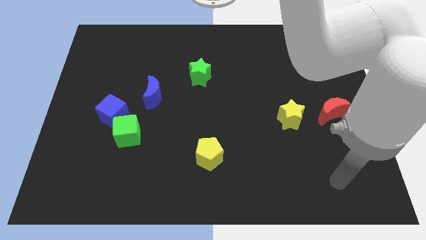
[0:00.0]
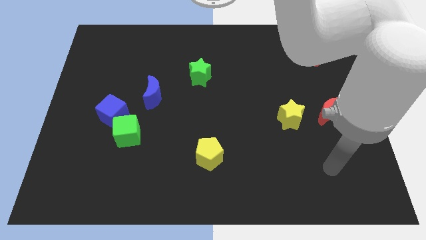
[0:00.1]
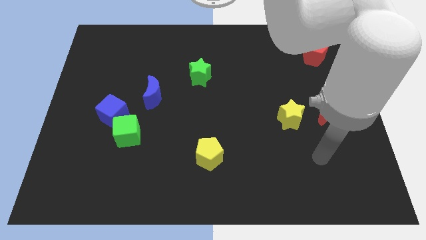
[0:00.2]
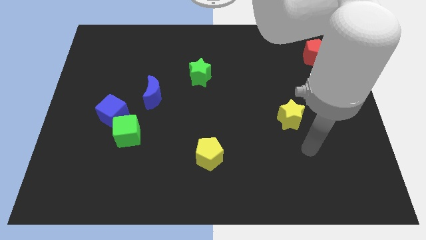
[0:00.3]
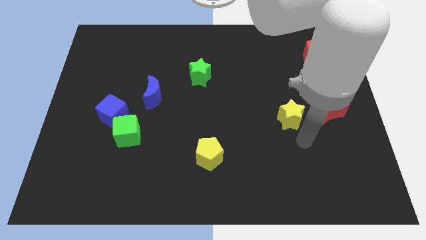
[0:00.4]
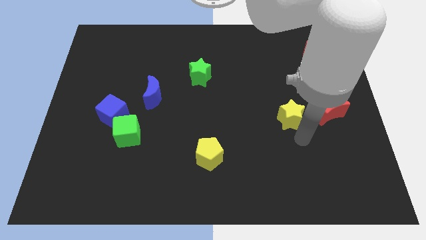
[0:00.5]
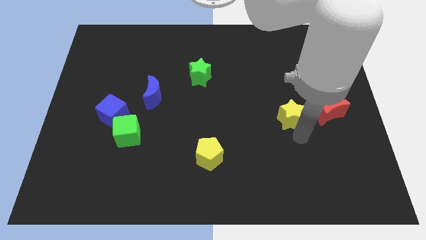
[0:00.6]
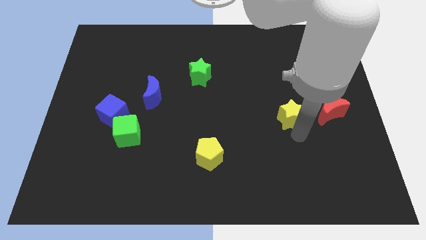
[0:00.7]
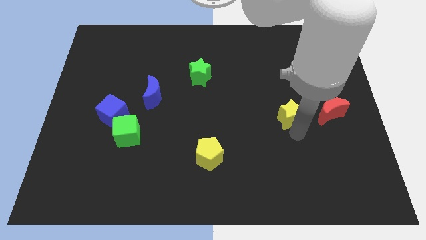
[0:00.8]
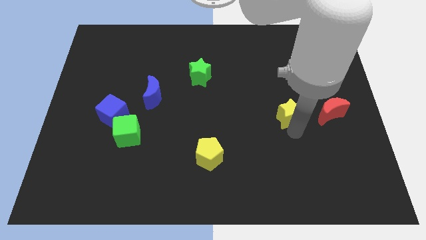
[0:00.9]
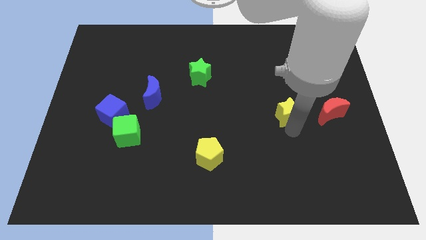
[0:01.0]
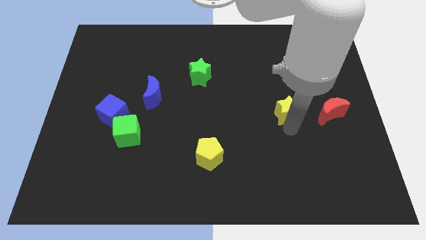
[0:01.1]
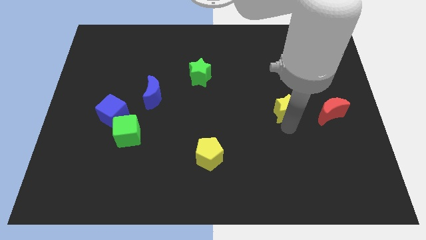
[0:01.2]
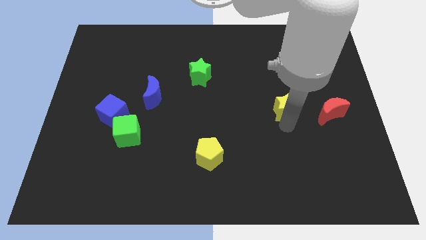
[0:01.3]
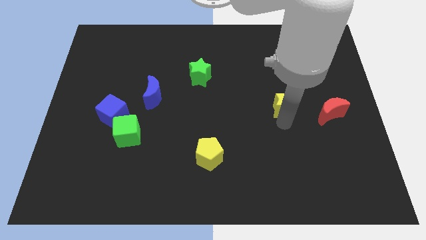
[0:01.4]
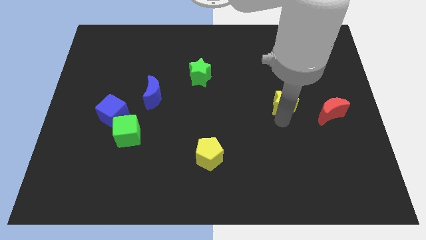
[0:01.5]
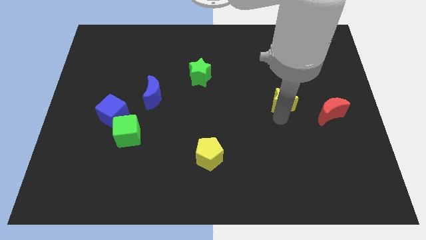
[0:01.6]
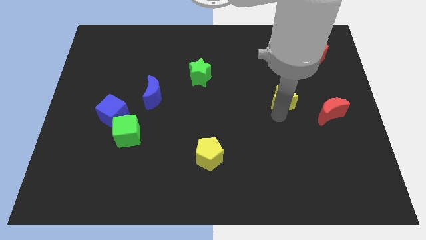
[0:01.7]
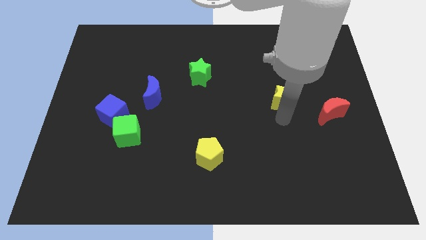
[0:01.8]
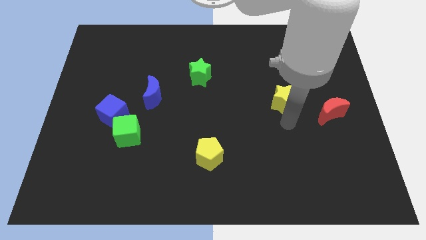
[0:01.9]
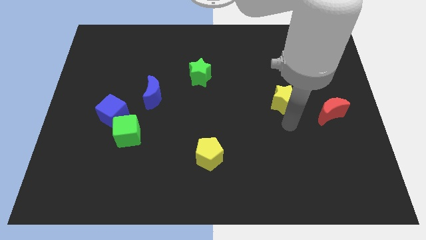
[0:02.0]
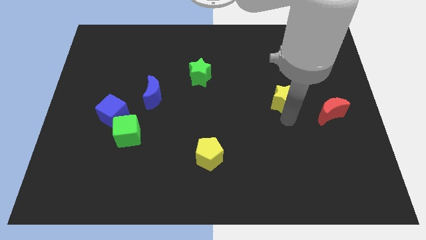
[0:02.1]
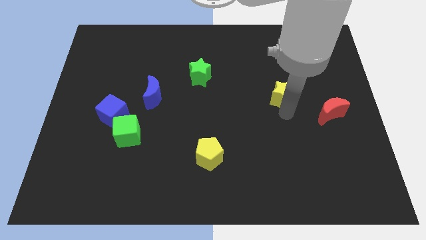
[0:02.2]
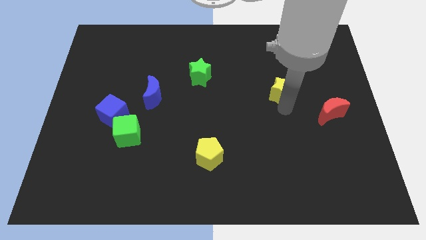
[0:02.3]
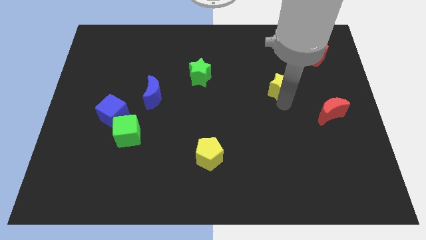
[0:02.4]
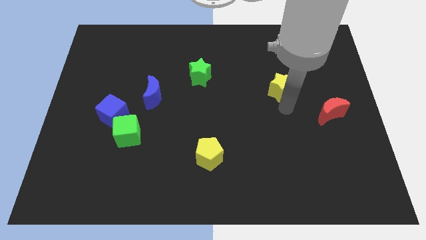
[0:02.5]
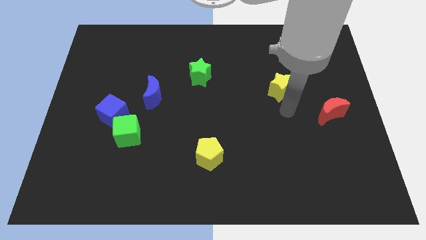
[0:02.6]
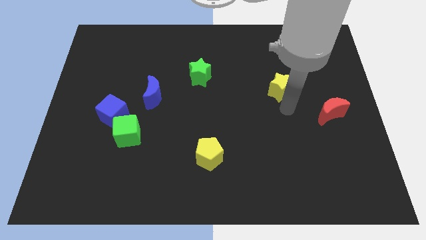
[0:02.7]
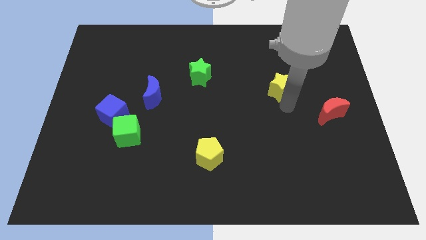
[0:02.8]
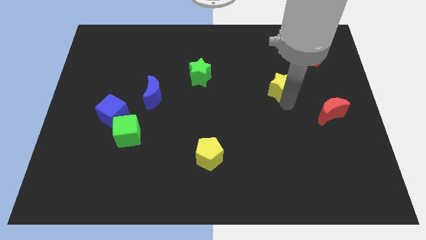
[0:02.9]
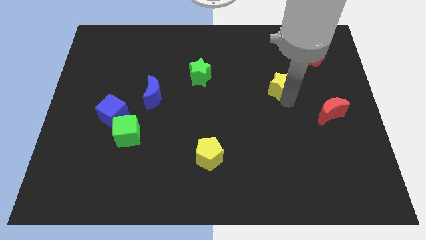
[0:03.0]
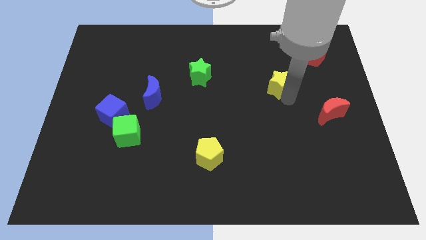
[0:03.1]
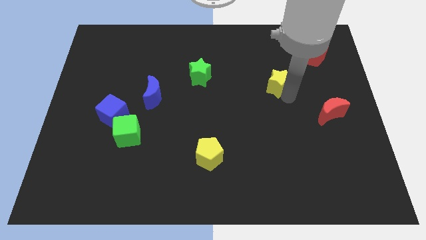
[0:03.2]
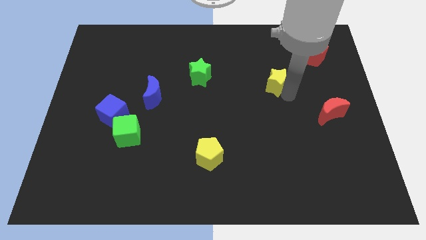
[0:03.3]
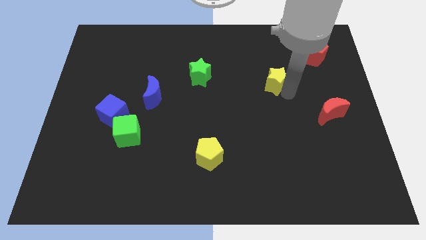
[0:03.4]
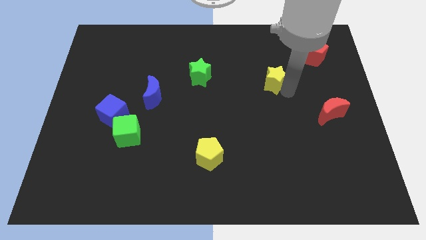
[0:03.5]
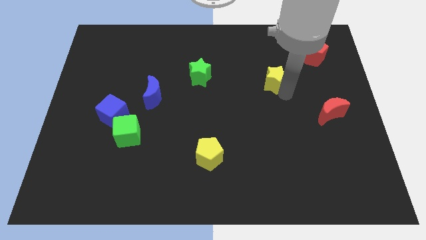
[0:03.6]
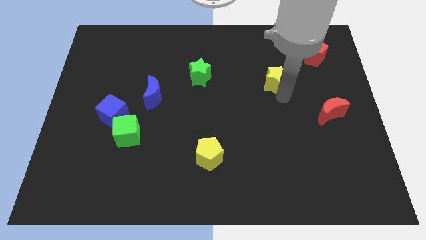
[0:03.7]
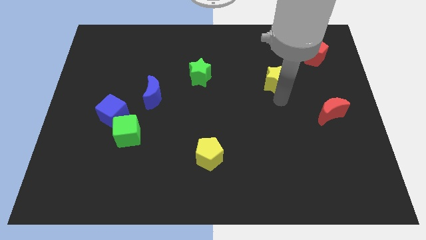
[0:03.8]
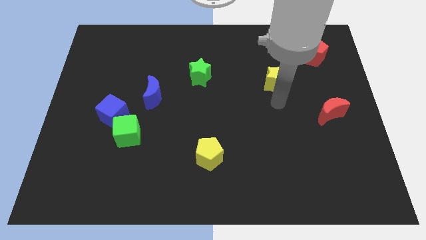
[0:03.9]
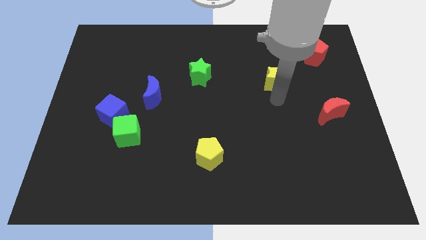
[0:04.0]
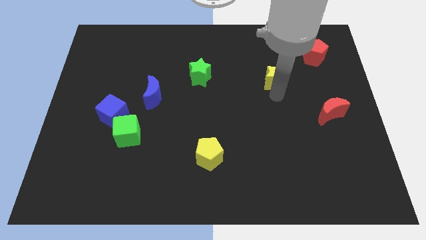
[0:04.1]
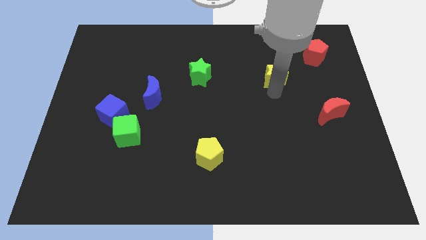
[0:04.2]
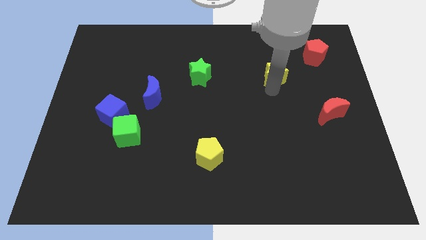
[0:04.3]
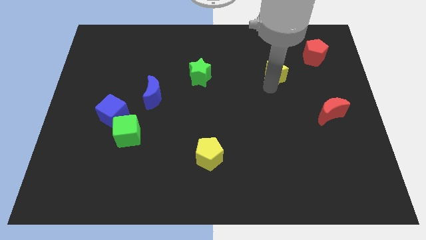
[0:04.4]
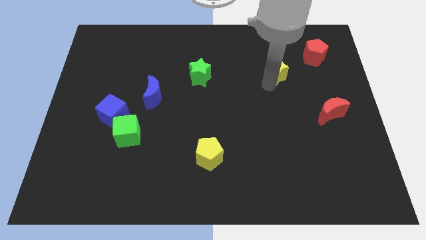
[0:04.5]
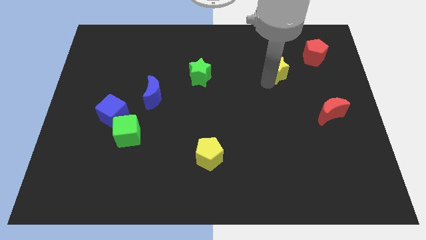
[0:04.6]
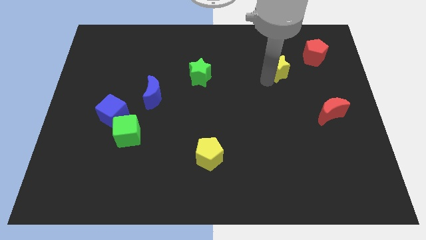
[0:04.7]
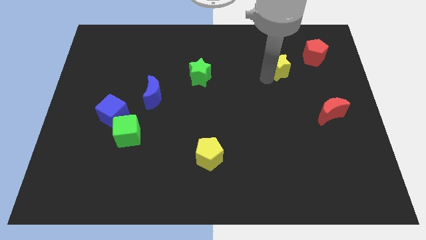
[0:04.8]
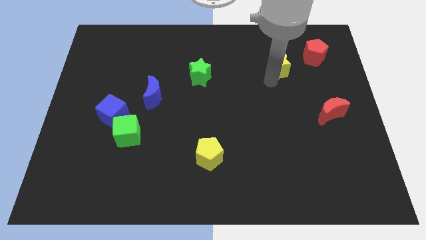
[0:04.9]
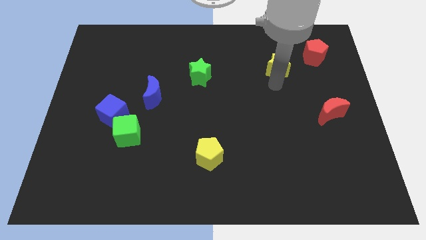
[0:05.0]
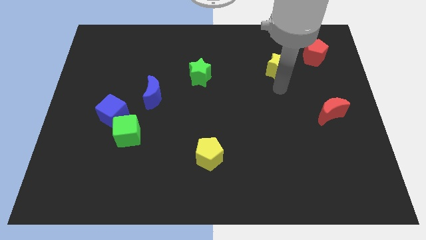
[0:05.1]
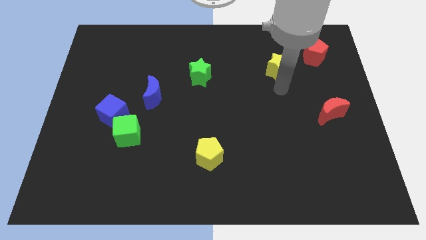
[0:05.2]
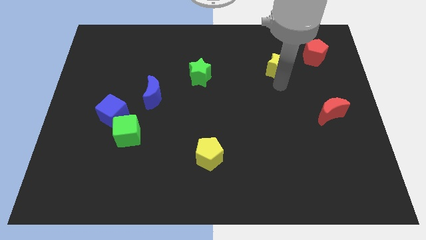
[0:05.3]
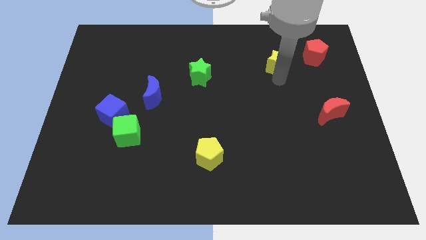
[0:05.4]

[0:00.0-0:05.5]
push the yellow star left of the red pentagon

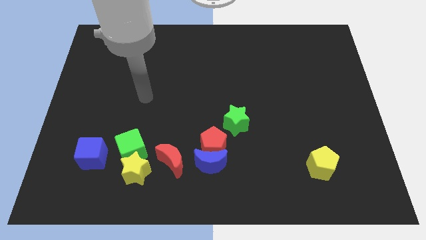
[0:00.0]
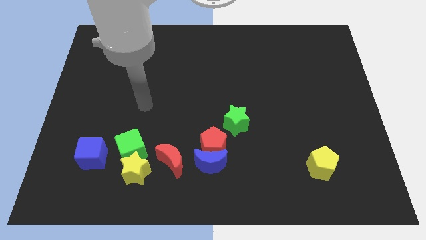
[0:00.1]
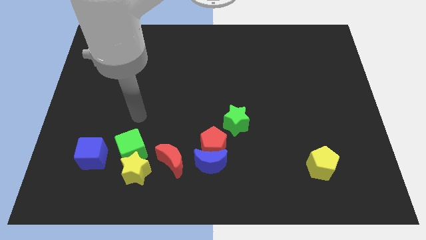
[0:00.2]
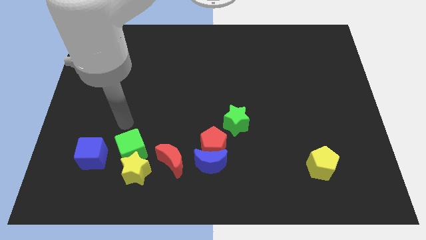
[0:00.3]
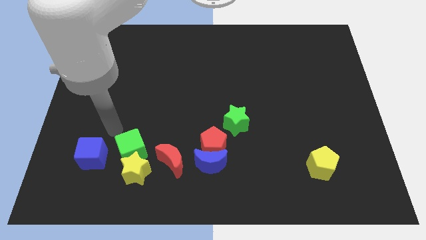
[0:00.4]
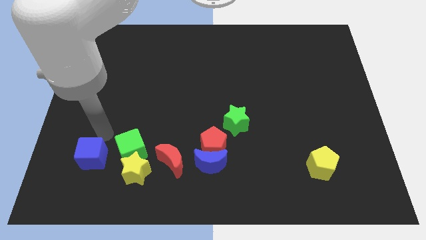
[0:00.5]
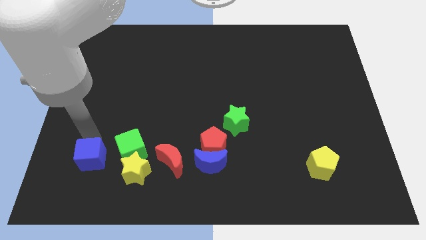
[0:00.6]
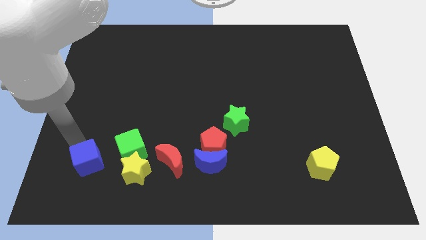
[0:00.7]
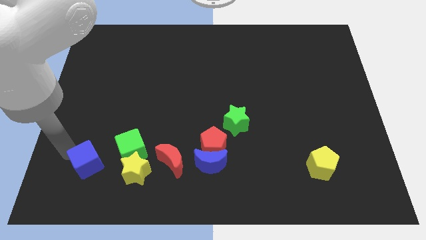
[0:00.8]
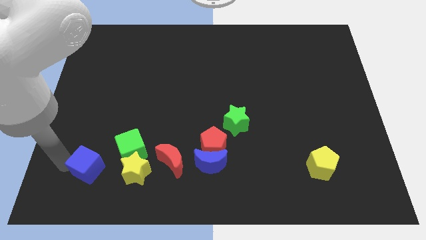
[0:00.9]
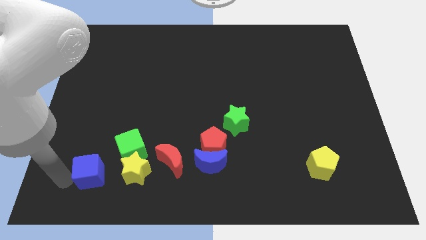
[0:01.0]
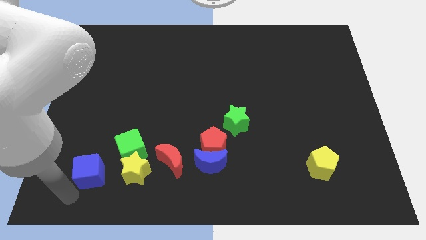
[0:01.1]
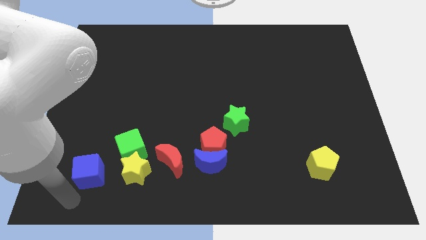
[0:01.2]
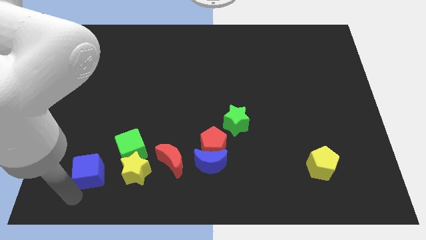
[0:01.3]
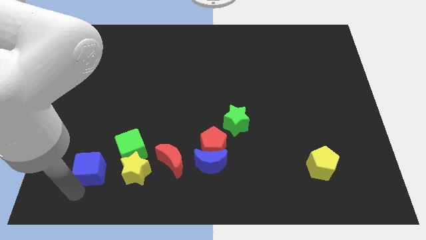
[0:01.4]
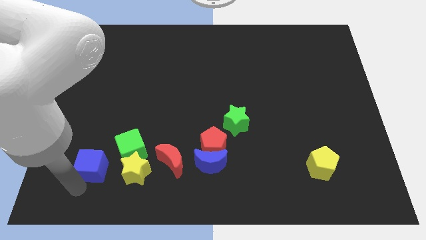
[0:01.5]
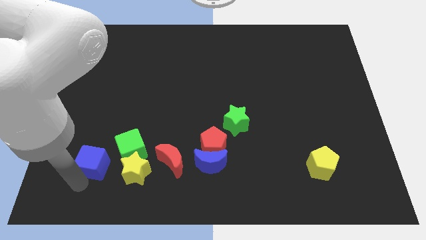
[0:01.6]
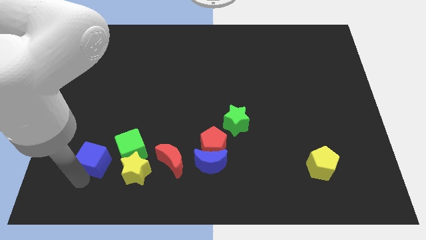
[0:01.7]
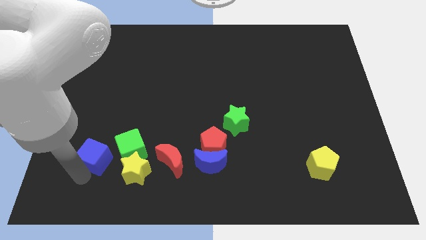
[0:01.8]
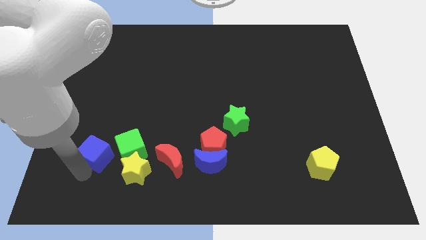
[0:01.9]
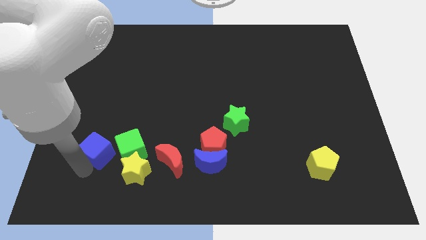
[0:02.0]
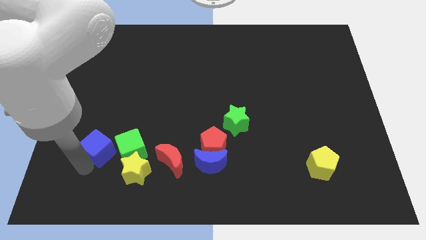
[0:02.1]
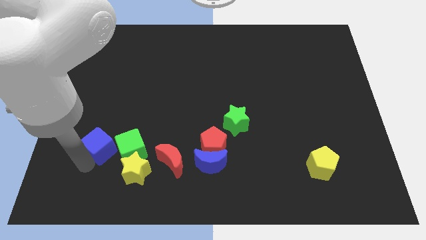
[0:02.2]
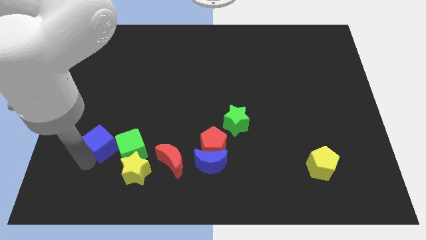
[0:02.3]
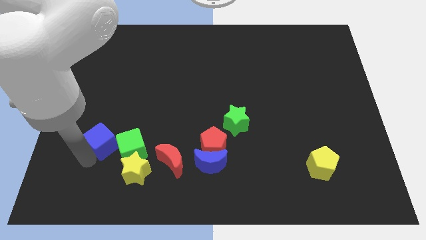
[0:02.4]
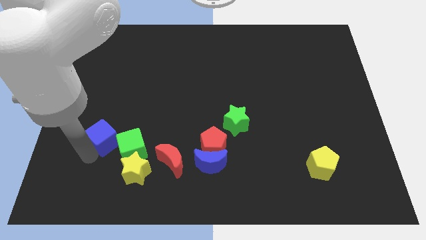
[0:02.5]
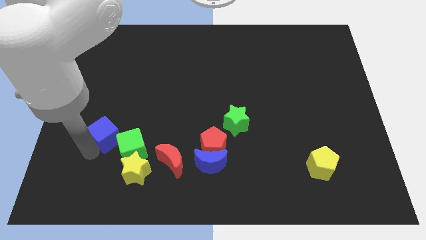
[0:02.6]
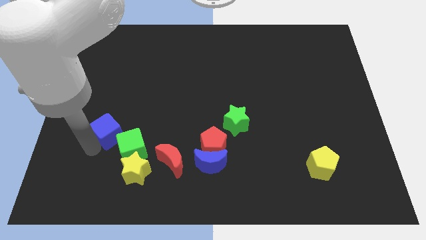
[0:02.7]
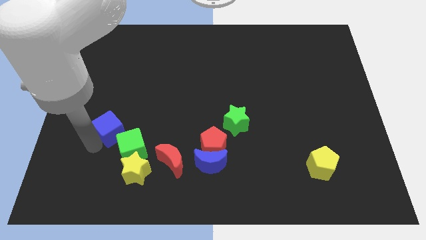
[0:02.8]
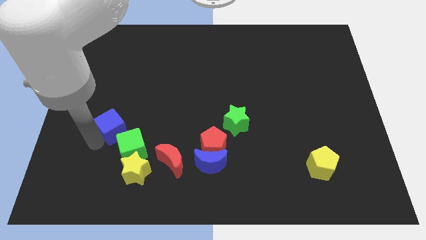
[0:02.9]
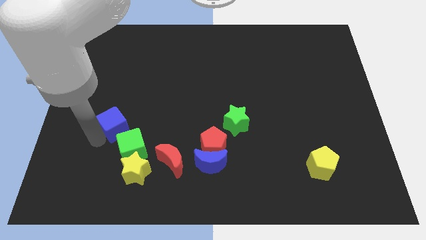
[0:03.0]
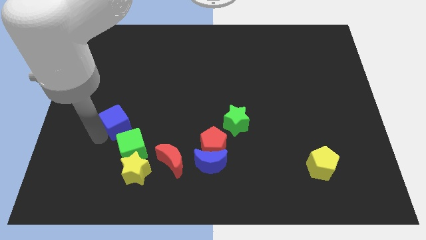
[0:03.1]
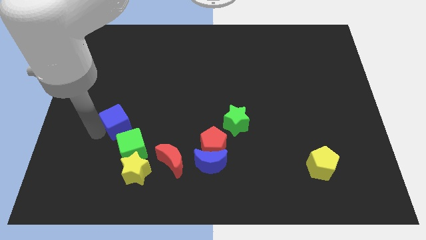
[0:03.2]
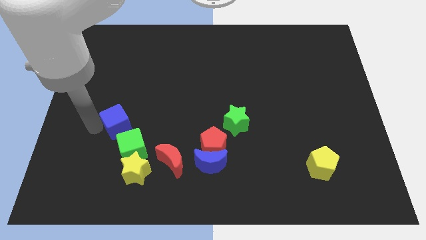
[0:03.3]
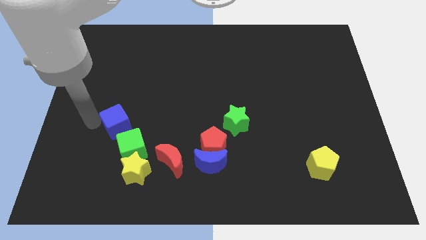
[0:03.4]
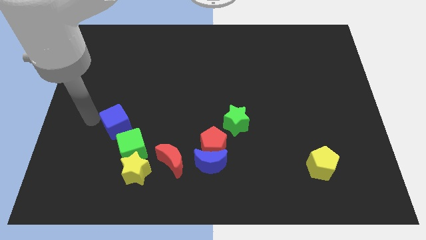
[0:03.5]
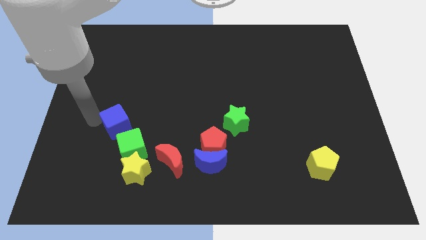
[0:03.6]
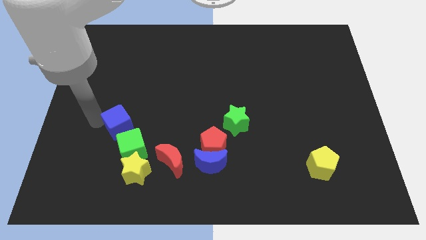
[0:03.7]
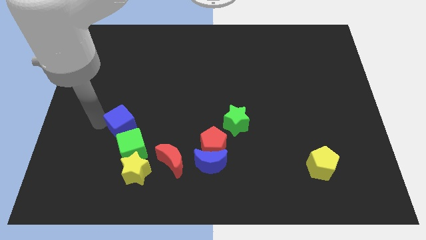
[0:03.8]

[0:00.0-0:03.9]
put the blue cube to the top of the yellow star
